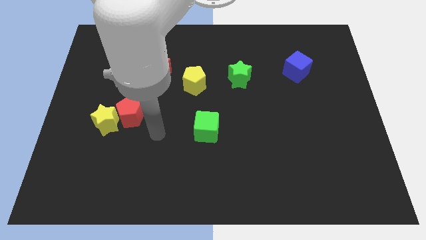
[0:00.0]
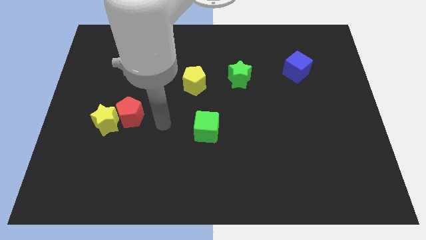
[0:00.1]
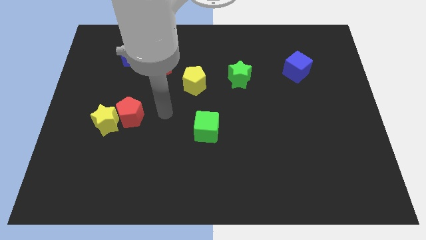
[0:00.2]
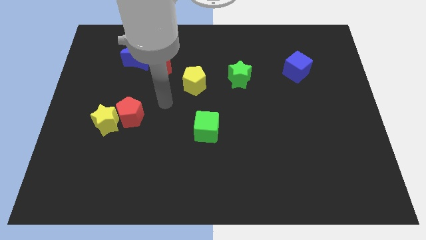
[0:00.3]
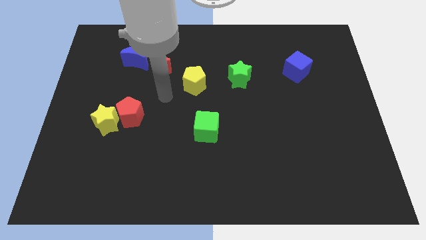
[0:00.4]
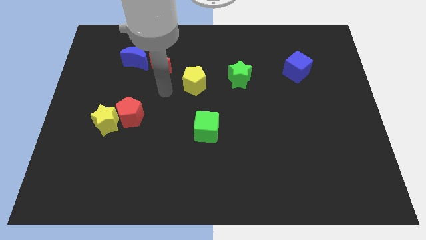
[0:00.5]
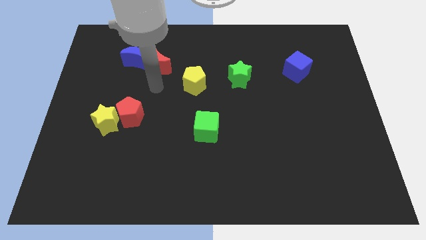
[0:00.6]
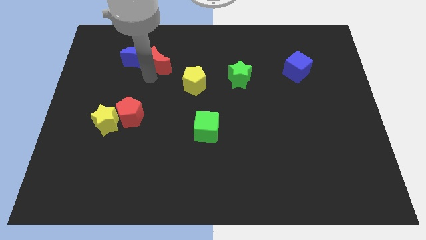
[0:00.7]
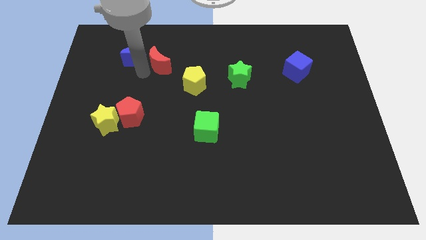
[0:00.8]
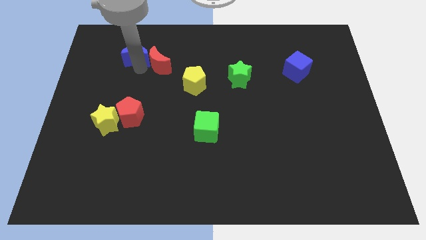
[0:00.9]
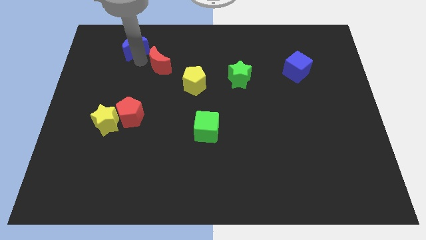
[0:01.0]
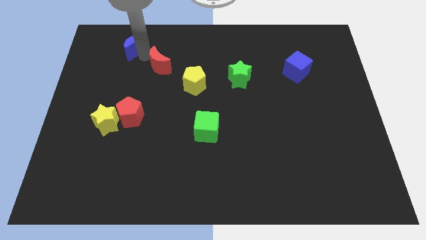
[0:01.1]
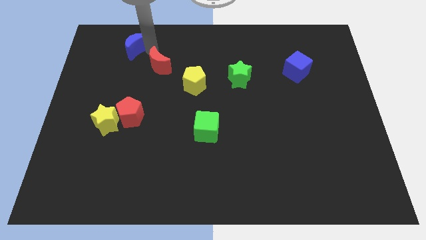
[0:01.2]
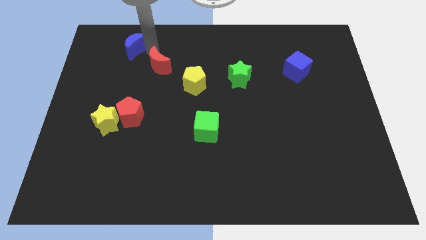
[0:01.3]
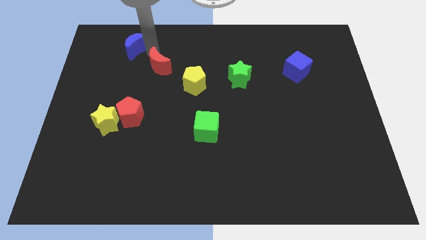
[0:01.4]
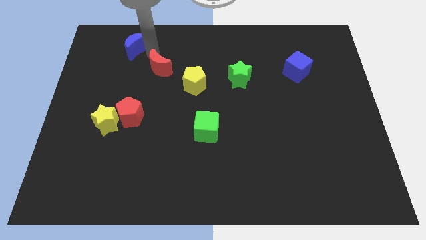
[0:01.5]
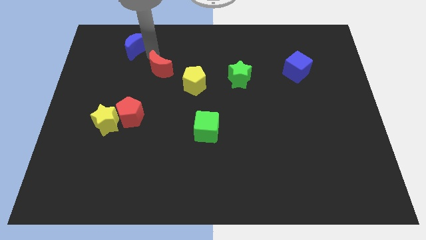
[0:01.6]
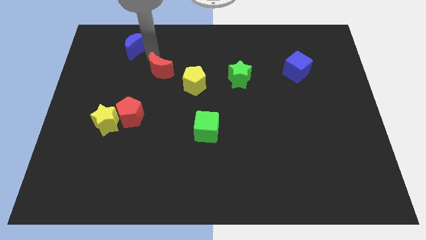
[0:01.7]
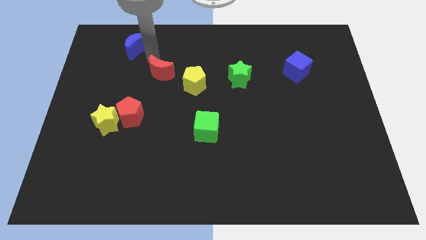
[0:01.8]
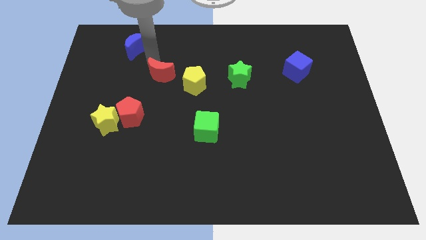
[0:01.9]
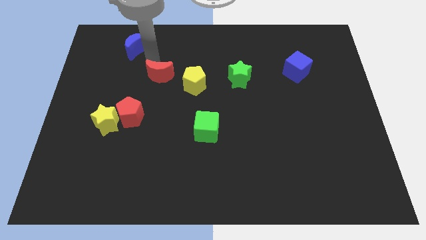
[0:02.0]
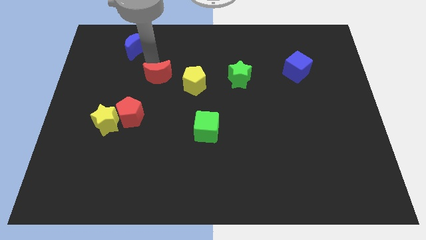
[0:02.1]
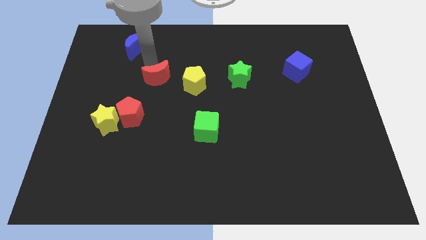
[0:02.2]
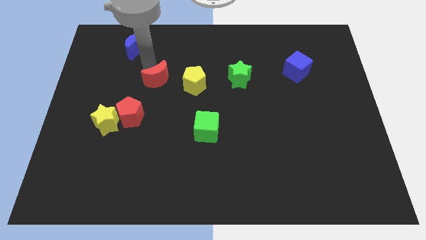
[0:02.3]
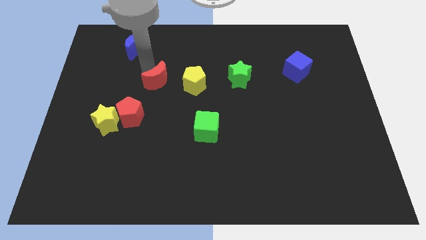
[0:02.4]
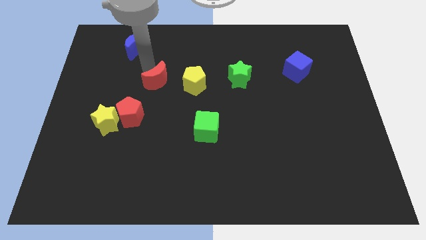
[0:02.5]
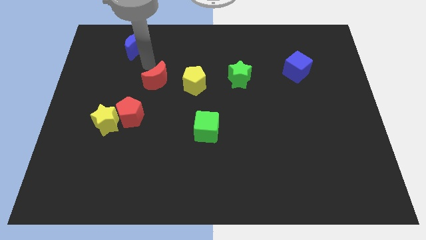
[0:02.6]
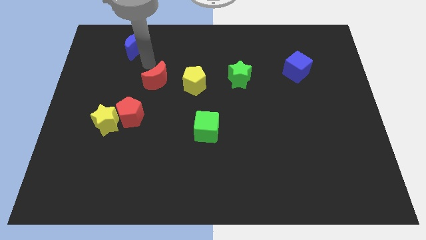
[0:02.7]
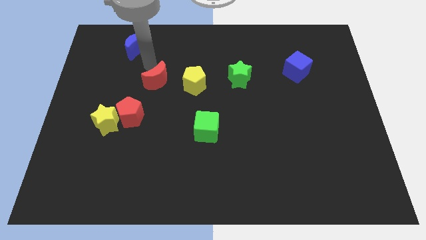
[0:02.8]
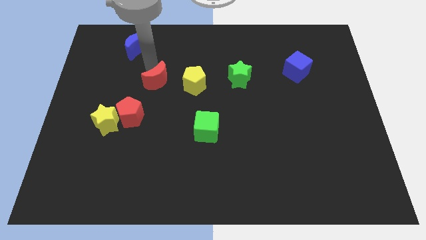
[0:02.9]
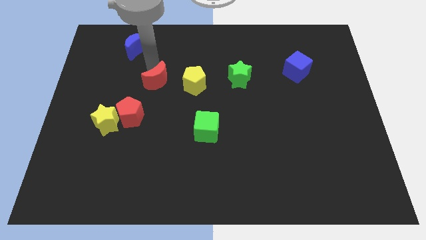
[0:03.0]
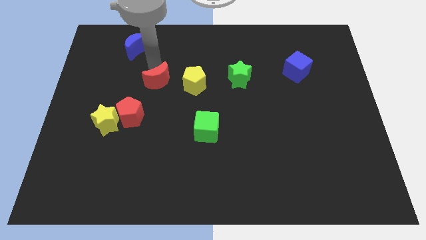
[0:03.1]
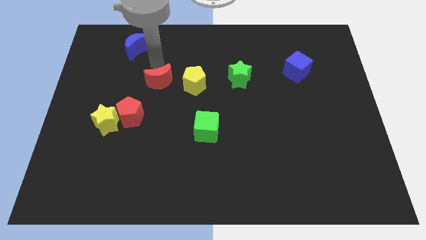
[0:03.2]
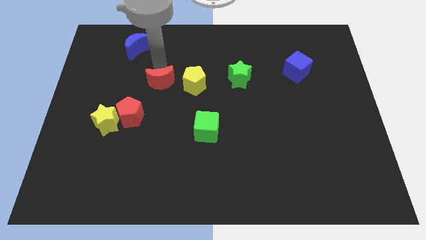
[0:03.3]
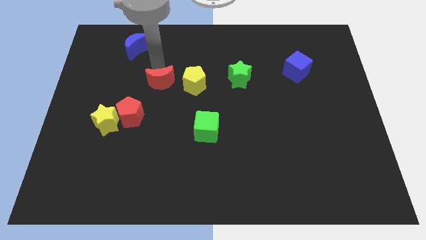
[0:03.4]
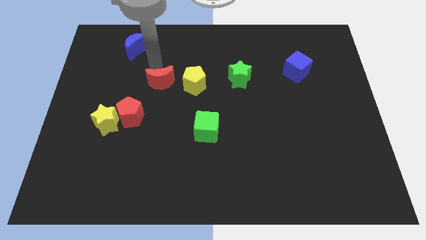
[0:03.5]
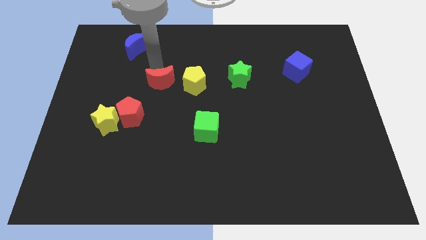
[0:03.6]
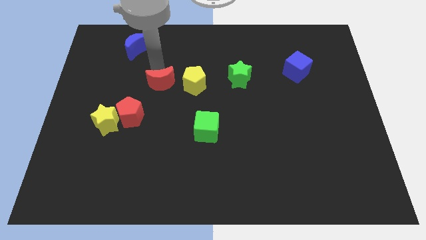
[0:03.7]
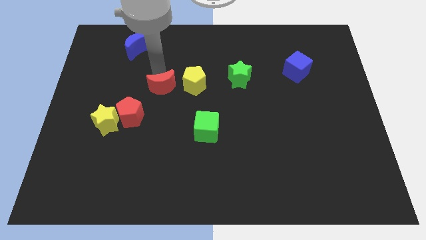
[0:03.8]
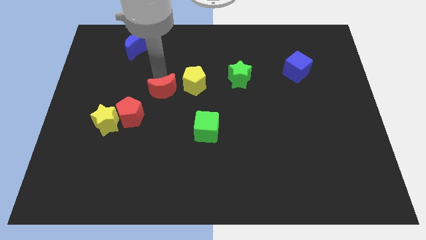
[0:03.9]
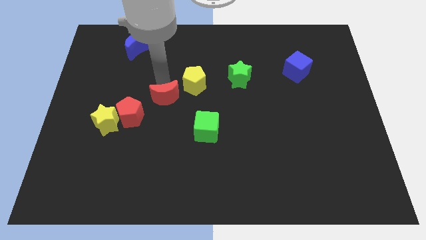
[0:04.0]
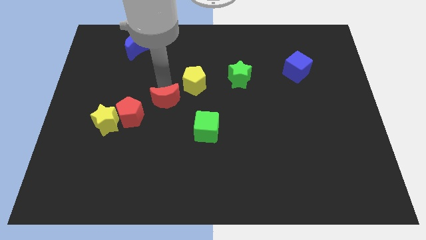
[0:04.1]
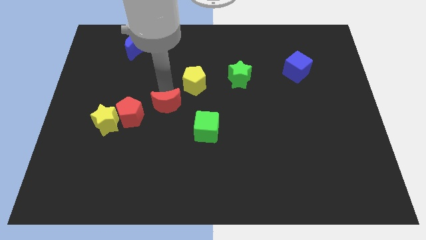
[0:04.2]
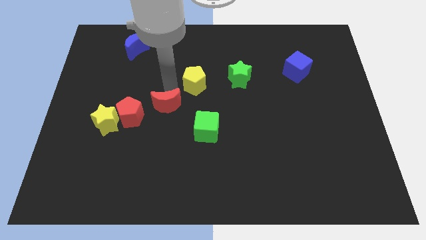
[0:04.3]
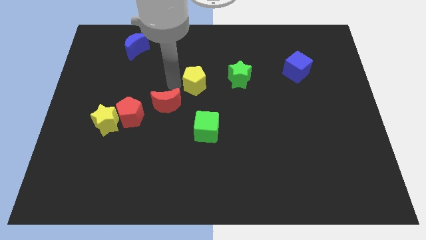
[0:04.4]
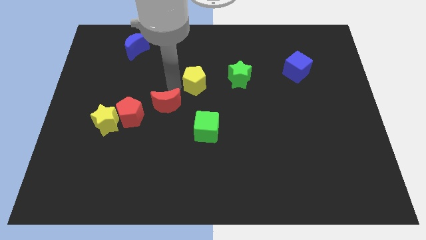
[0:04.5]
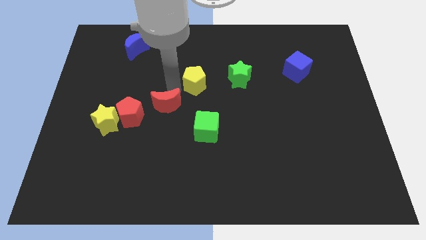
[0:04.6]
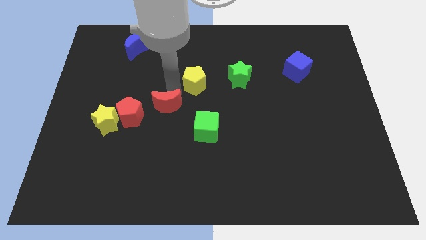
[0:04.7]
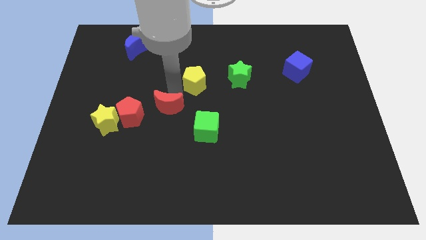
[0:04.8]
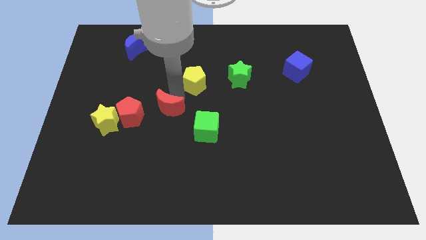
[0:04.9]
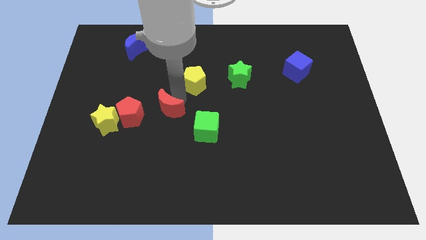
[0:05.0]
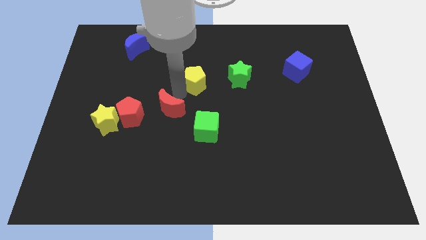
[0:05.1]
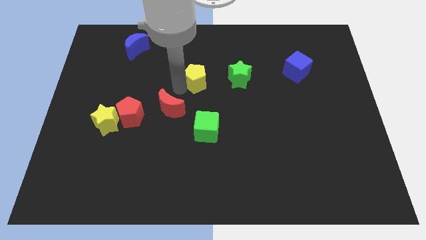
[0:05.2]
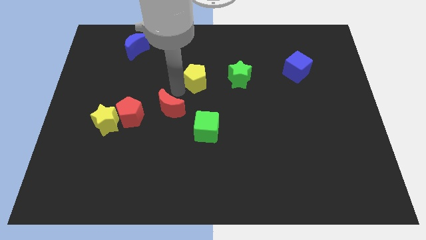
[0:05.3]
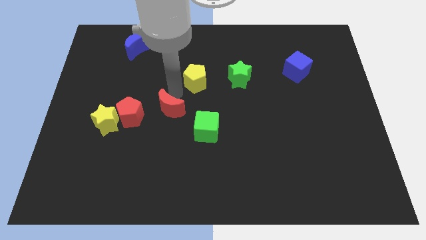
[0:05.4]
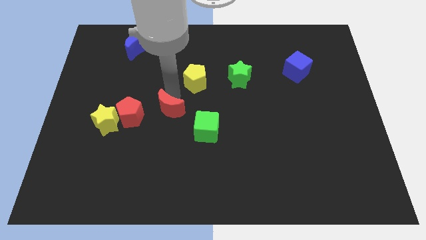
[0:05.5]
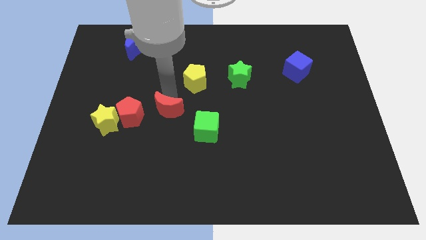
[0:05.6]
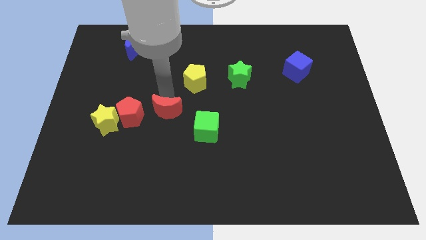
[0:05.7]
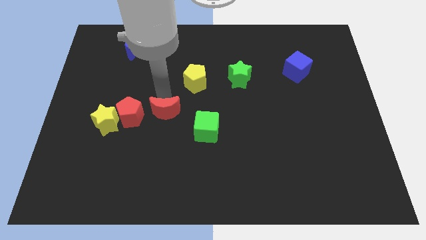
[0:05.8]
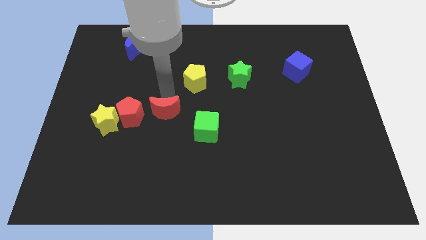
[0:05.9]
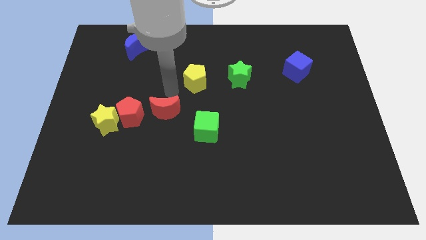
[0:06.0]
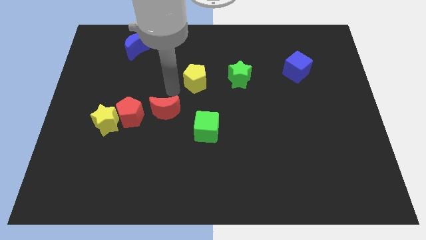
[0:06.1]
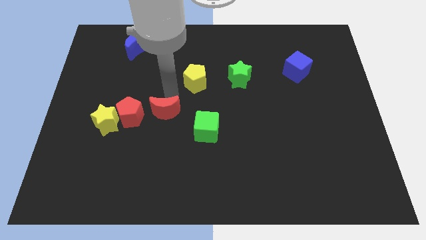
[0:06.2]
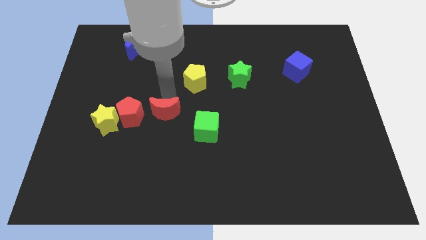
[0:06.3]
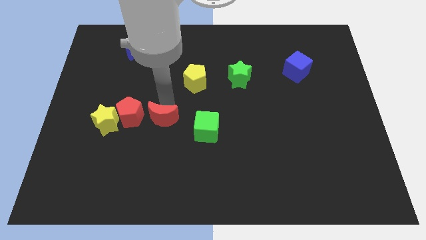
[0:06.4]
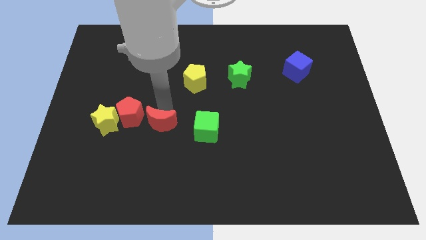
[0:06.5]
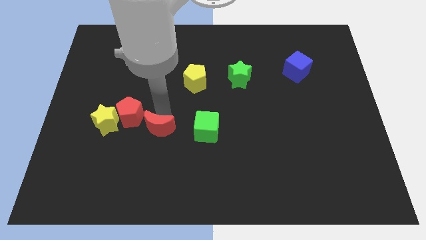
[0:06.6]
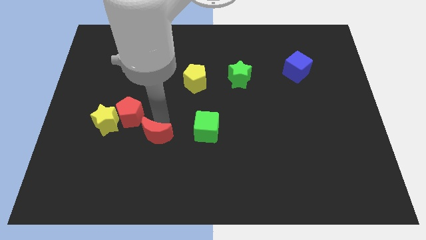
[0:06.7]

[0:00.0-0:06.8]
slide the red moon downwards

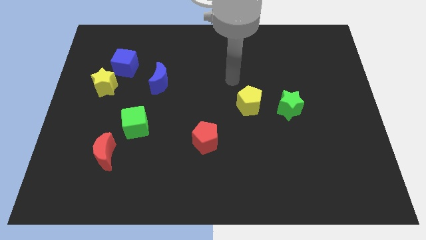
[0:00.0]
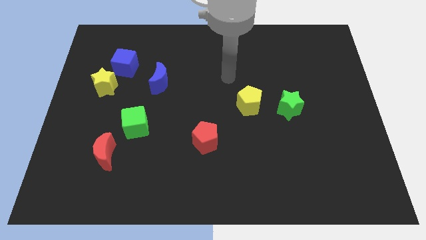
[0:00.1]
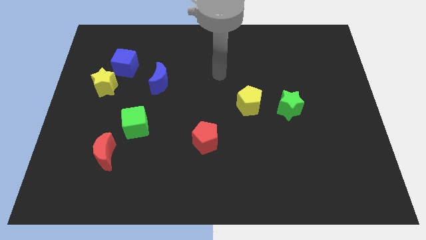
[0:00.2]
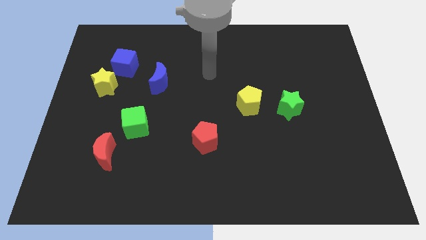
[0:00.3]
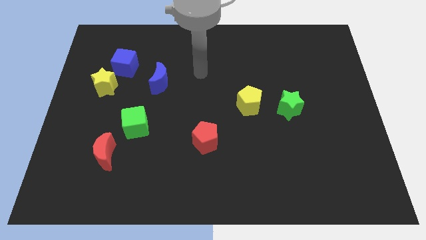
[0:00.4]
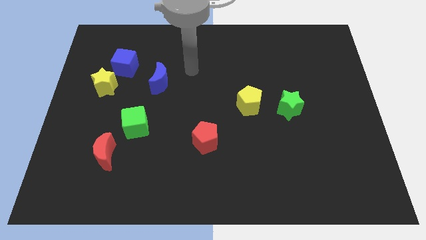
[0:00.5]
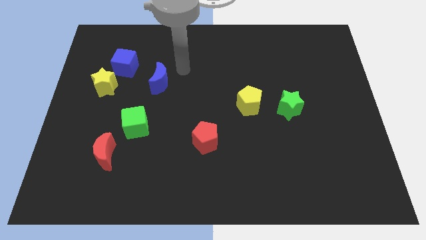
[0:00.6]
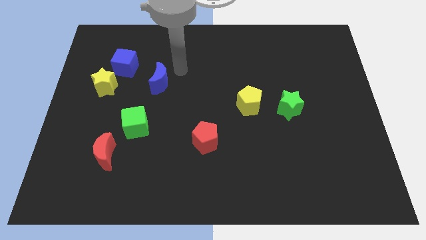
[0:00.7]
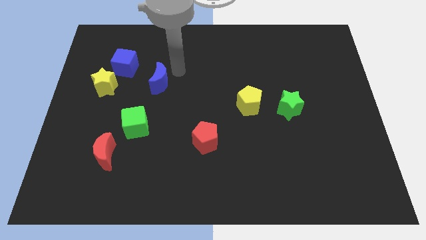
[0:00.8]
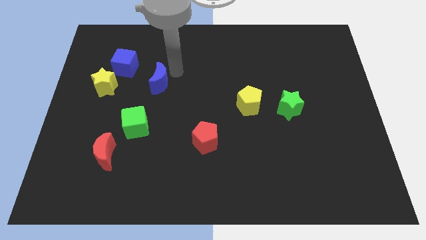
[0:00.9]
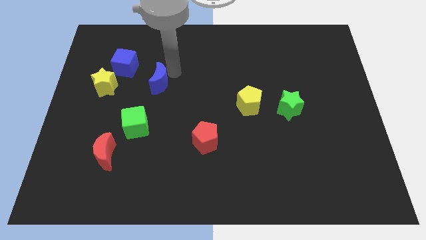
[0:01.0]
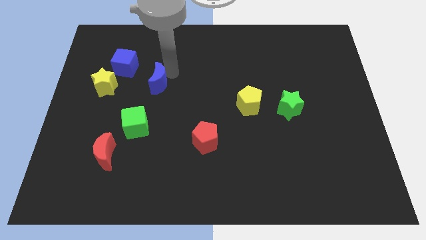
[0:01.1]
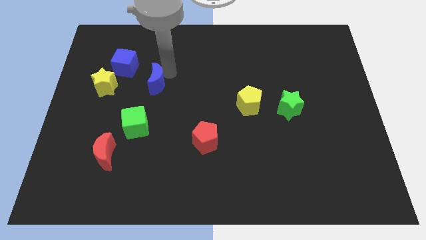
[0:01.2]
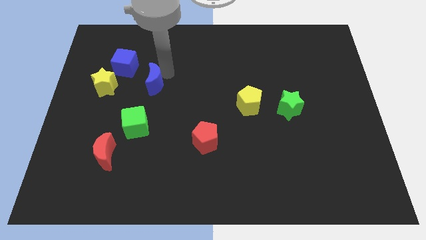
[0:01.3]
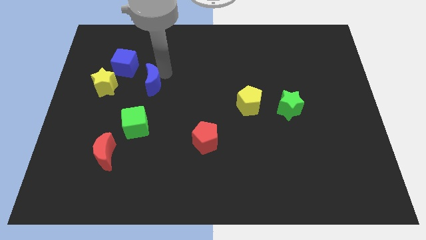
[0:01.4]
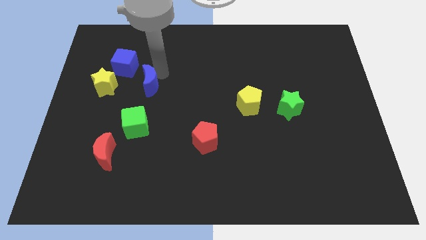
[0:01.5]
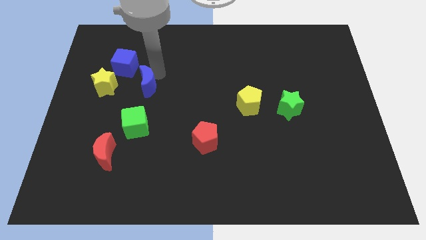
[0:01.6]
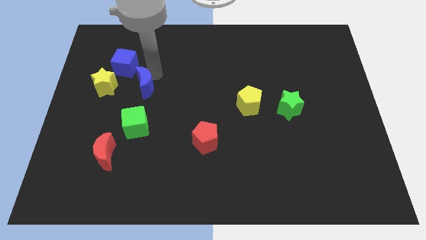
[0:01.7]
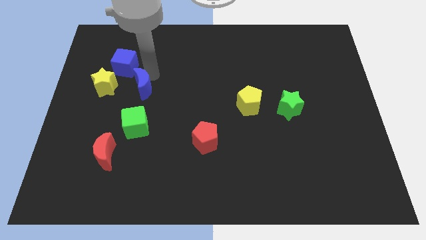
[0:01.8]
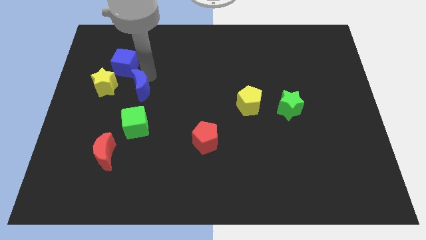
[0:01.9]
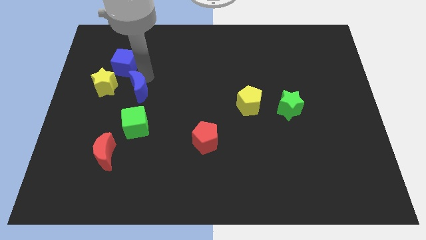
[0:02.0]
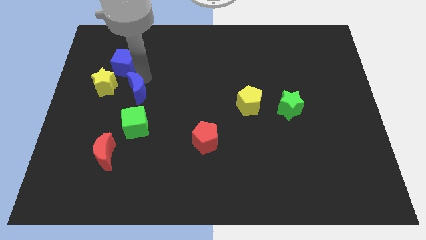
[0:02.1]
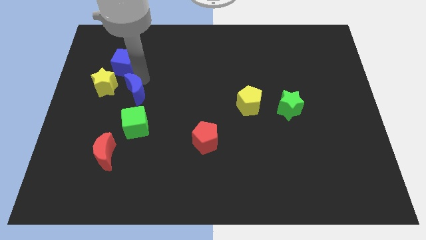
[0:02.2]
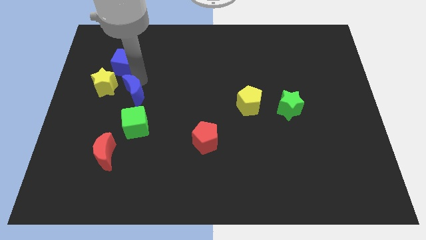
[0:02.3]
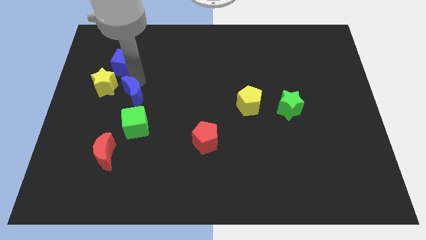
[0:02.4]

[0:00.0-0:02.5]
slightly push the blue moon down and to the left diagonally
